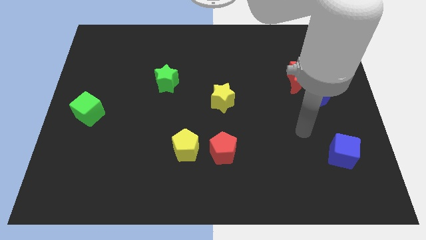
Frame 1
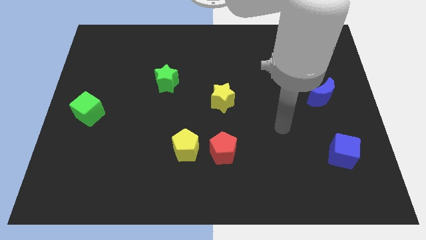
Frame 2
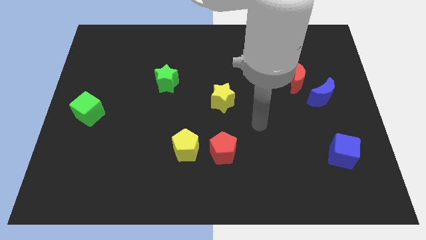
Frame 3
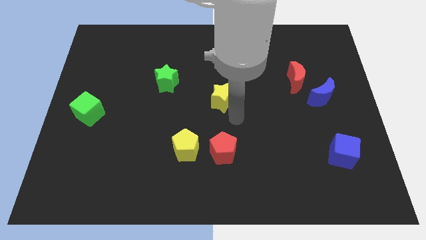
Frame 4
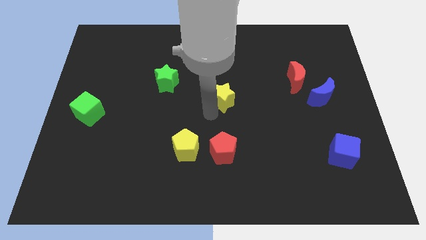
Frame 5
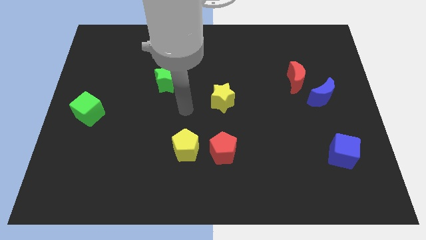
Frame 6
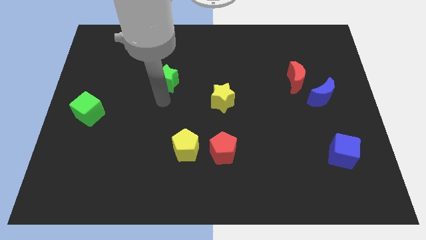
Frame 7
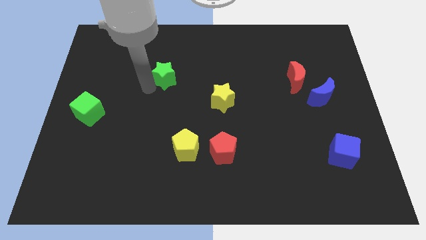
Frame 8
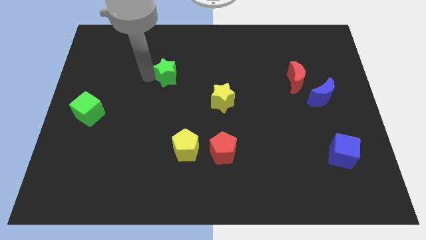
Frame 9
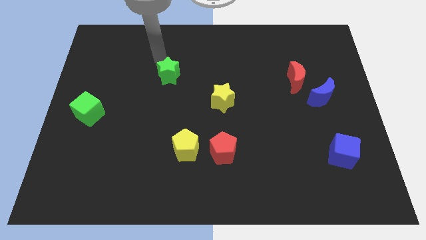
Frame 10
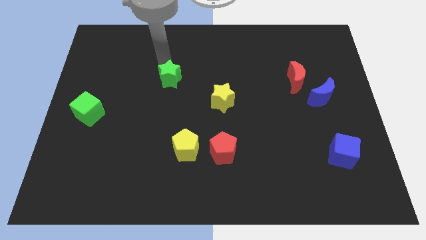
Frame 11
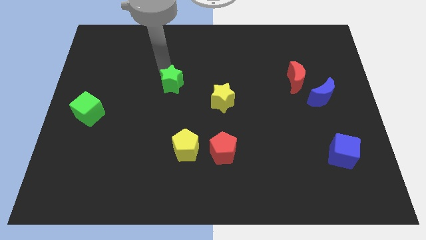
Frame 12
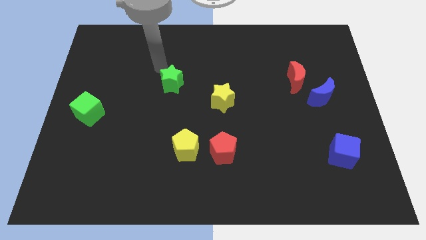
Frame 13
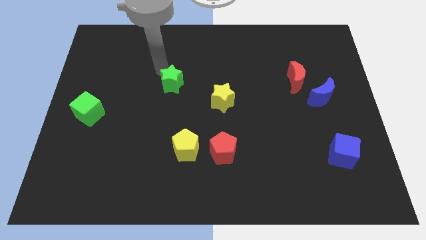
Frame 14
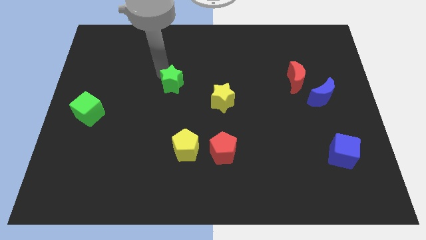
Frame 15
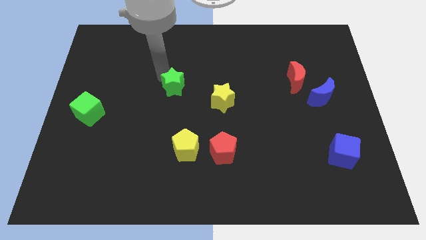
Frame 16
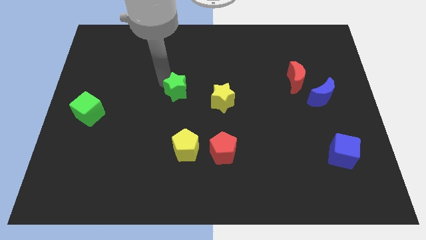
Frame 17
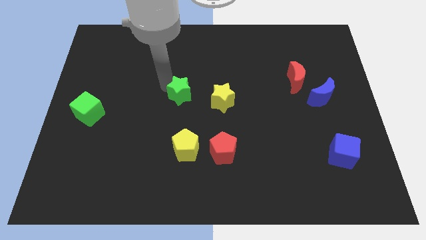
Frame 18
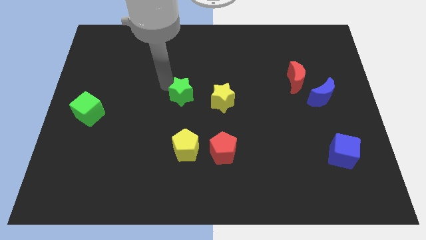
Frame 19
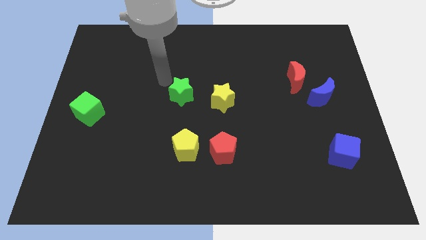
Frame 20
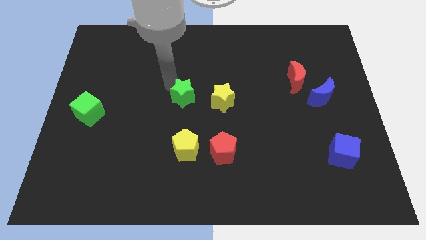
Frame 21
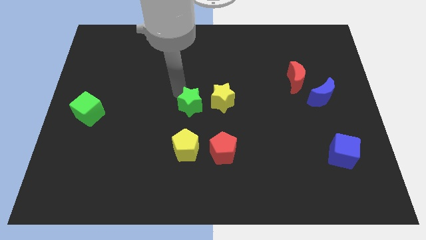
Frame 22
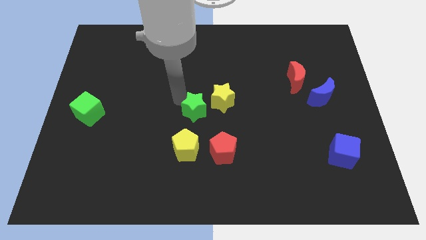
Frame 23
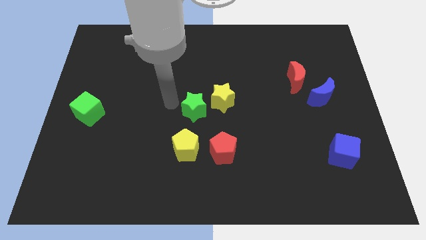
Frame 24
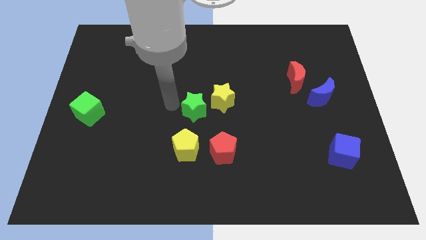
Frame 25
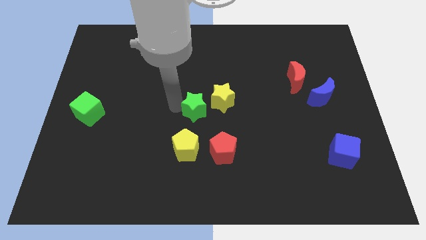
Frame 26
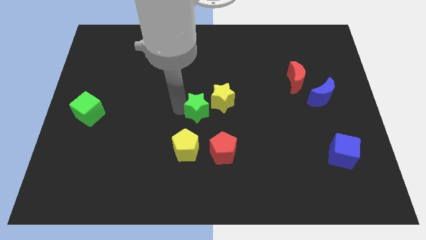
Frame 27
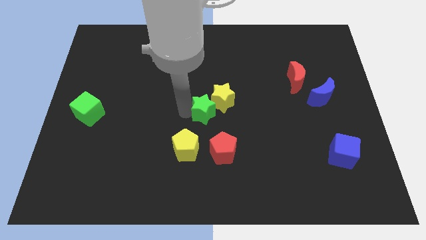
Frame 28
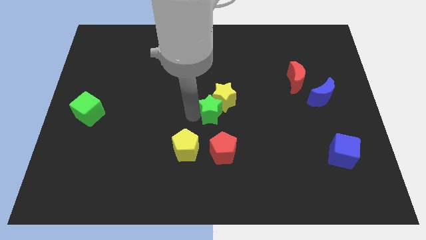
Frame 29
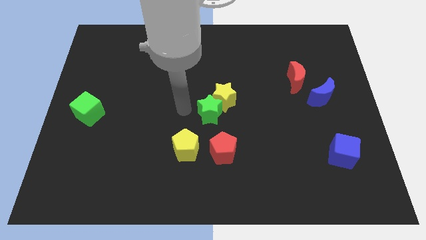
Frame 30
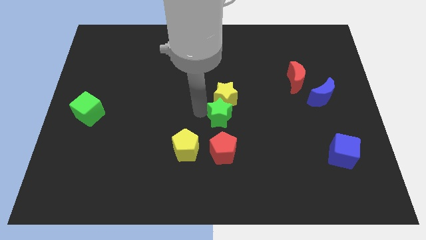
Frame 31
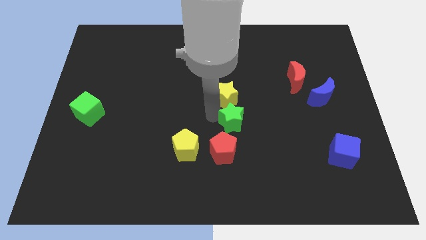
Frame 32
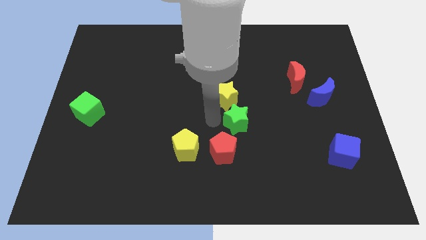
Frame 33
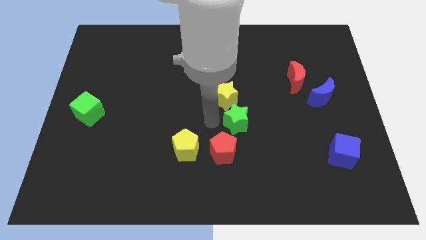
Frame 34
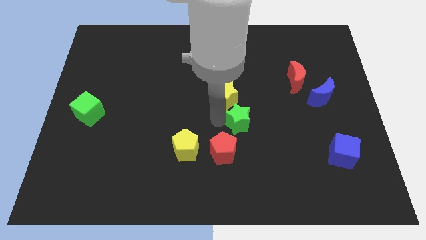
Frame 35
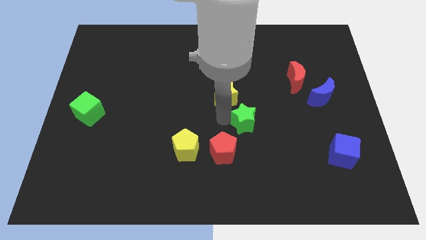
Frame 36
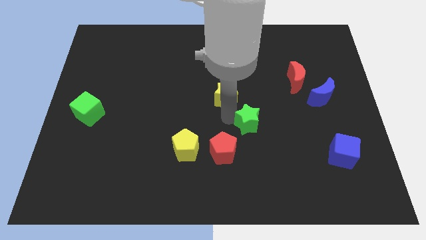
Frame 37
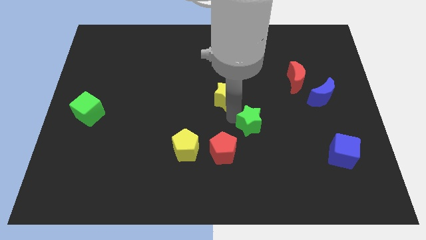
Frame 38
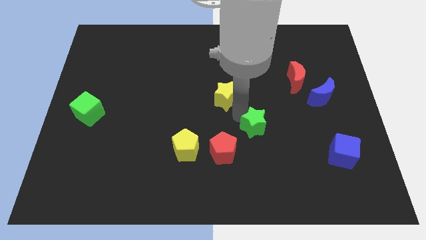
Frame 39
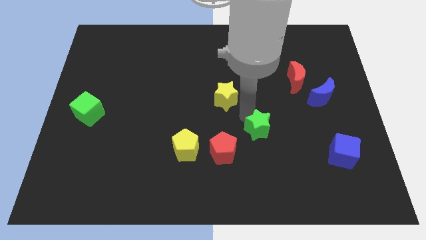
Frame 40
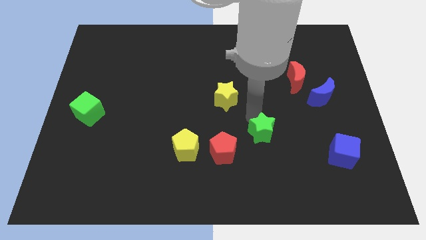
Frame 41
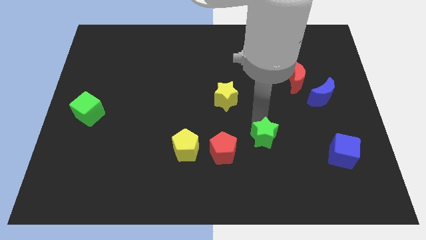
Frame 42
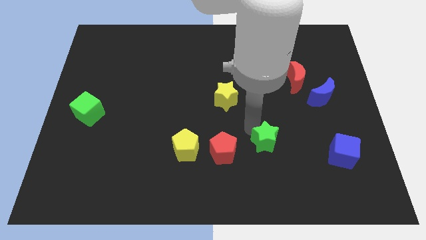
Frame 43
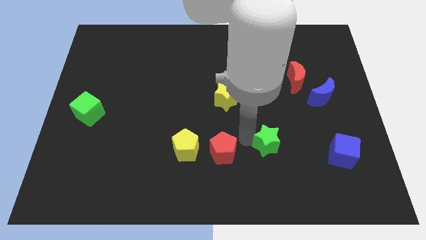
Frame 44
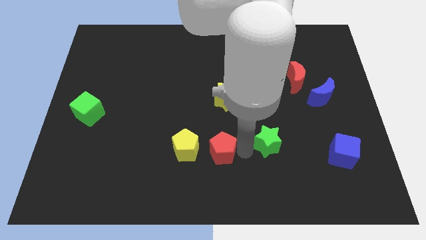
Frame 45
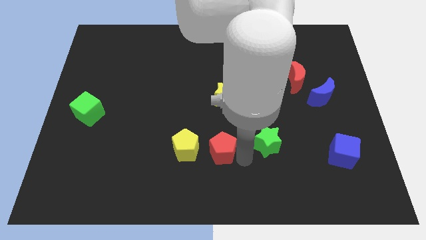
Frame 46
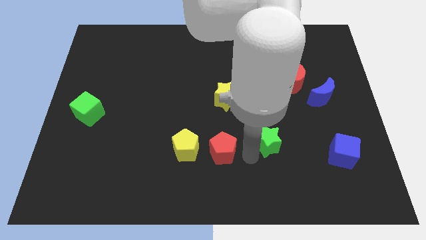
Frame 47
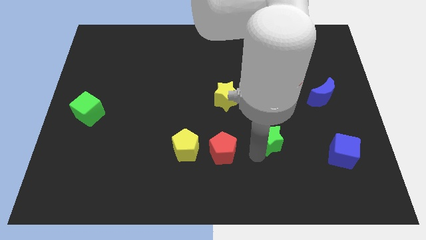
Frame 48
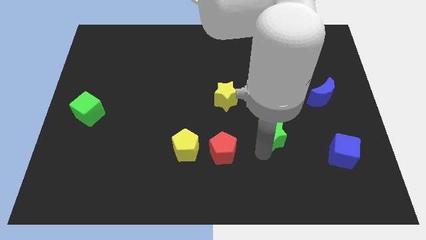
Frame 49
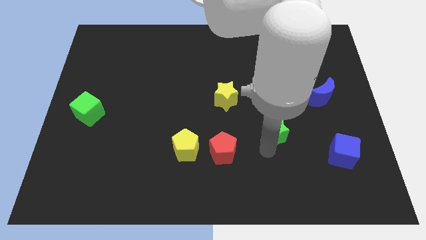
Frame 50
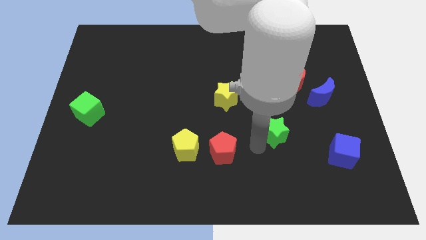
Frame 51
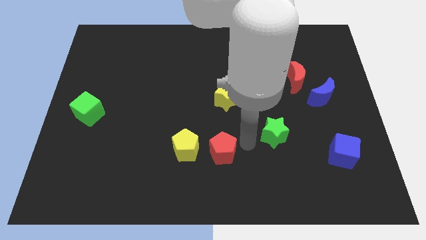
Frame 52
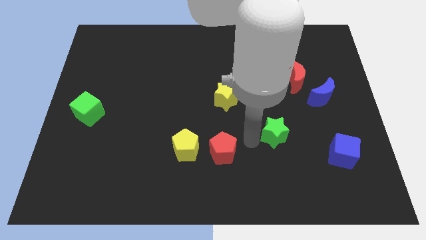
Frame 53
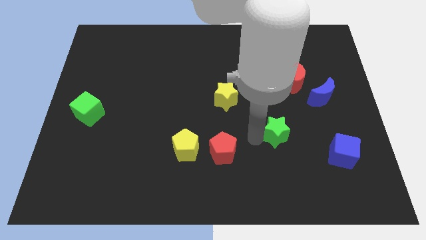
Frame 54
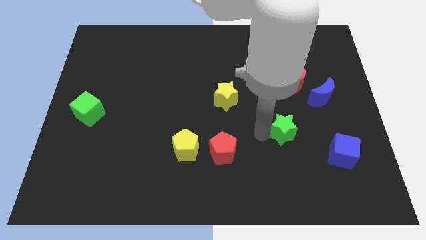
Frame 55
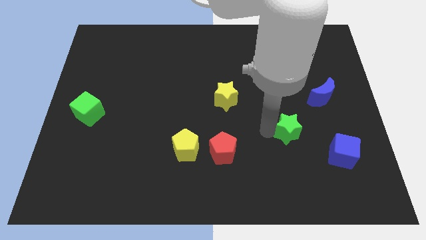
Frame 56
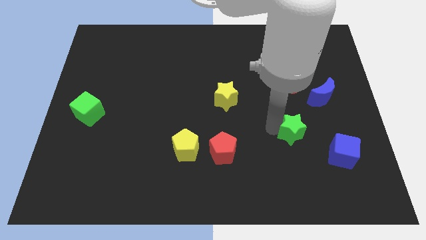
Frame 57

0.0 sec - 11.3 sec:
slide the green star to the top left of the blue cube
